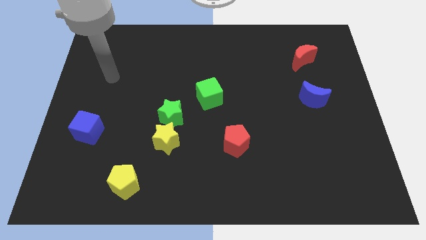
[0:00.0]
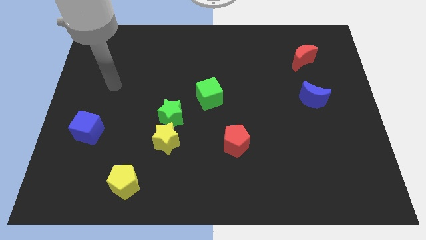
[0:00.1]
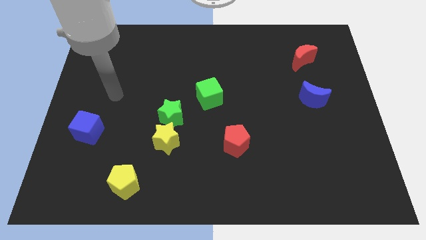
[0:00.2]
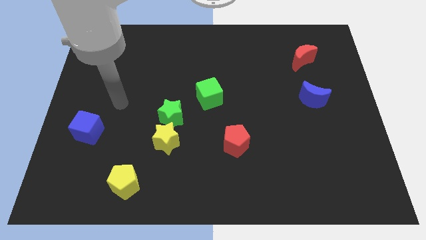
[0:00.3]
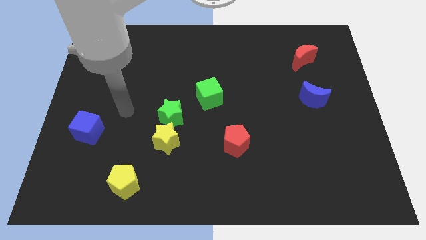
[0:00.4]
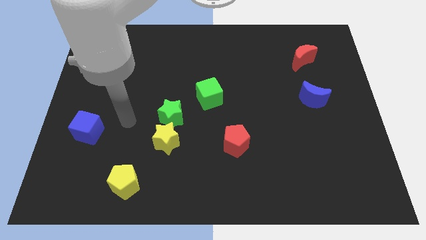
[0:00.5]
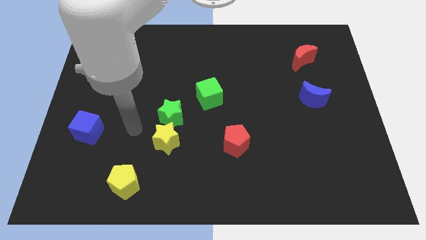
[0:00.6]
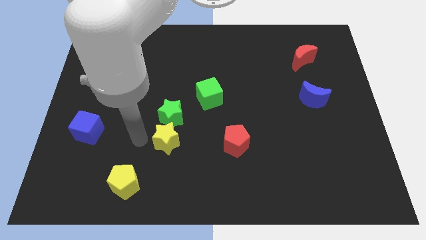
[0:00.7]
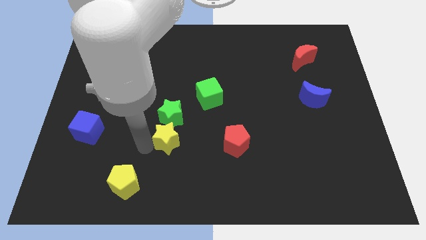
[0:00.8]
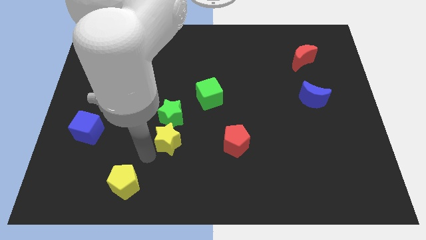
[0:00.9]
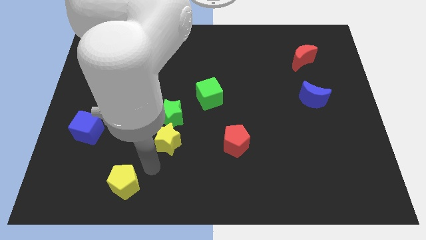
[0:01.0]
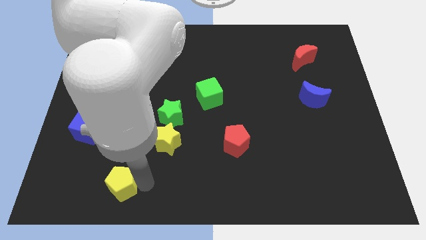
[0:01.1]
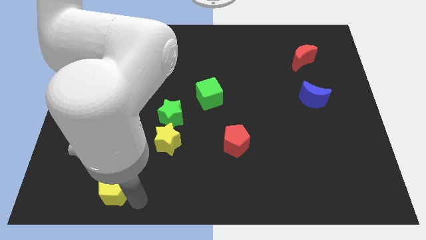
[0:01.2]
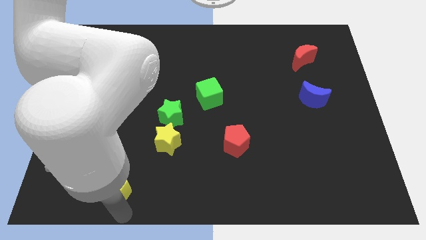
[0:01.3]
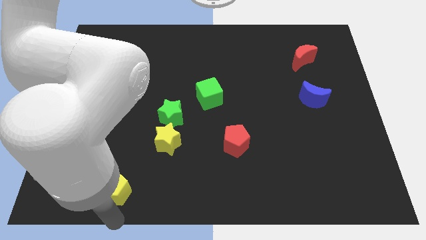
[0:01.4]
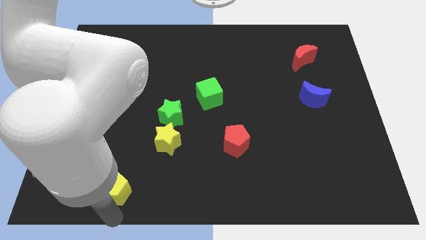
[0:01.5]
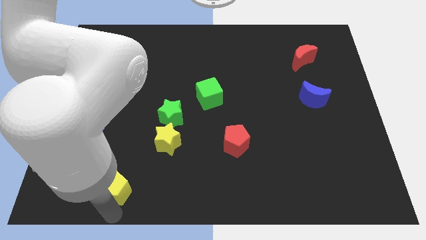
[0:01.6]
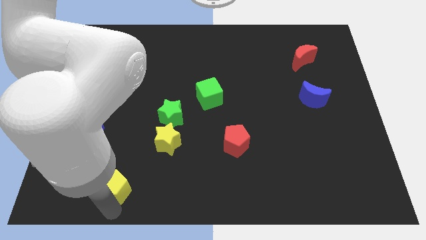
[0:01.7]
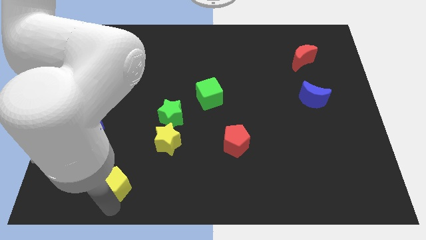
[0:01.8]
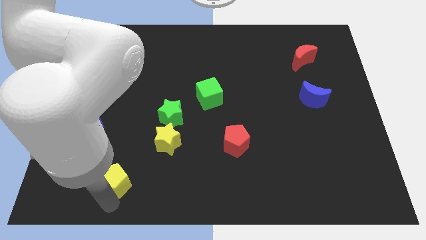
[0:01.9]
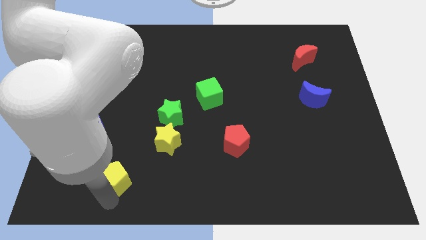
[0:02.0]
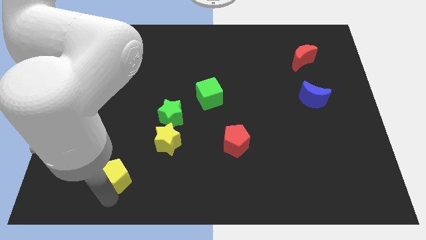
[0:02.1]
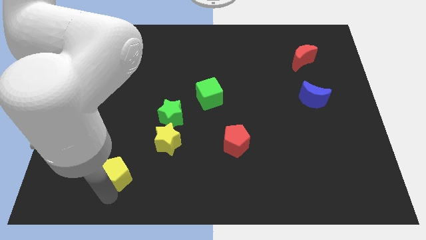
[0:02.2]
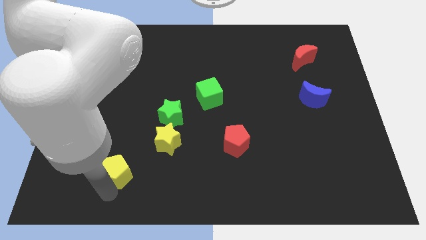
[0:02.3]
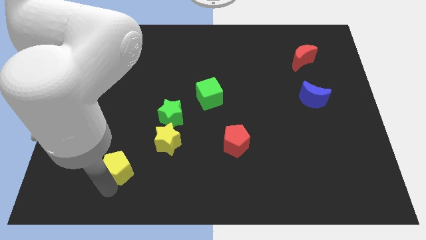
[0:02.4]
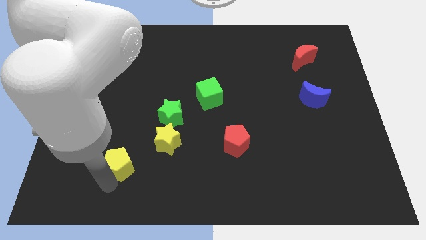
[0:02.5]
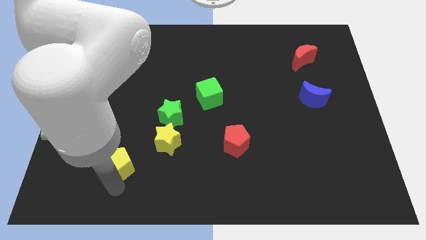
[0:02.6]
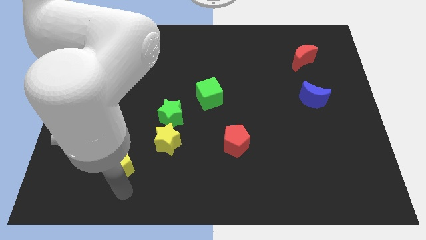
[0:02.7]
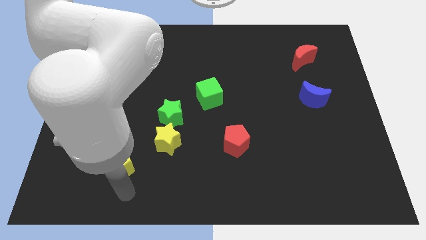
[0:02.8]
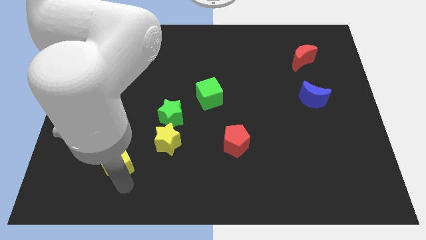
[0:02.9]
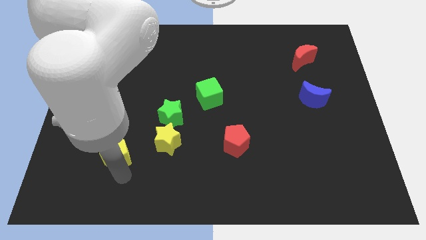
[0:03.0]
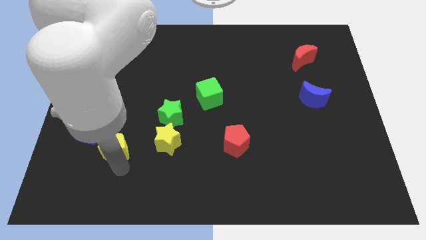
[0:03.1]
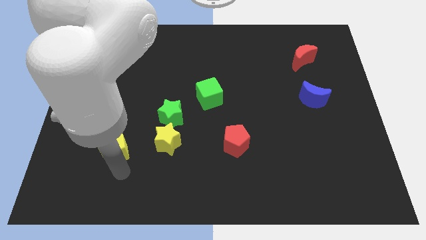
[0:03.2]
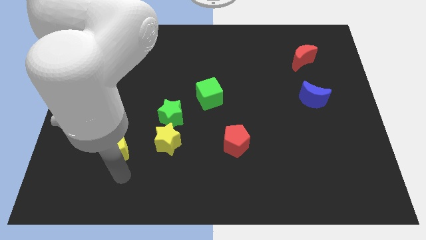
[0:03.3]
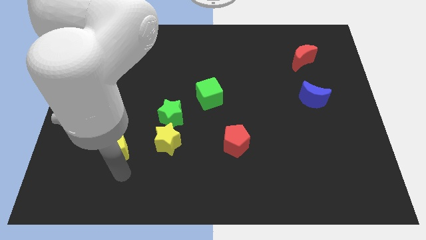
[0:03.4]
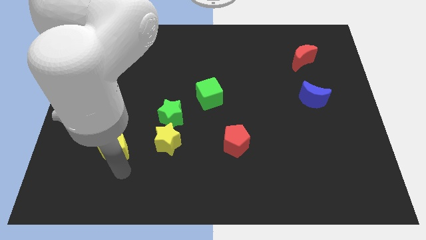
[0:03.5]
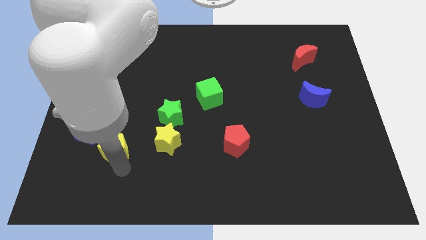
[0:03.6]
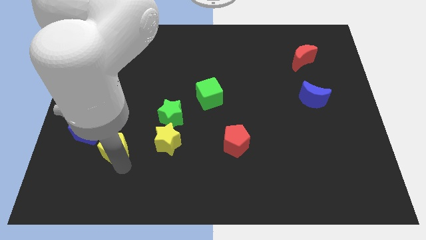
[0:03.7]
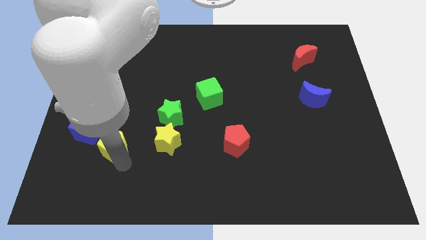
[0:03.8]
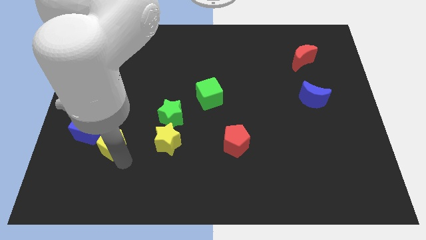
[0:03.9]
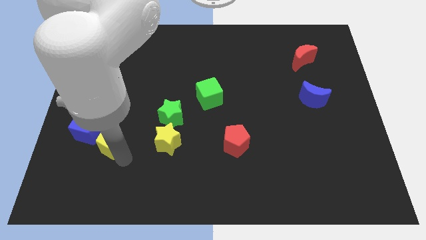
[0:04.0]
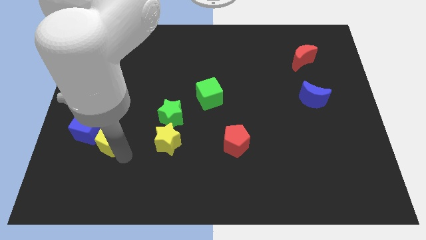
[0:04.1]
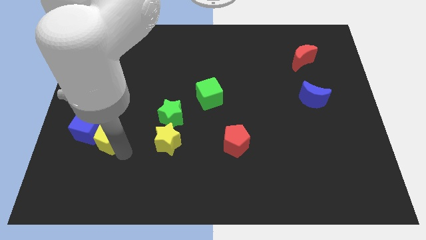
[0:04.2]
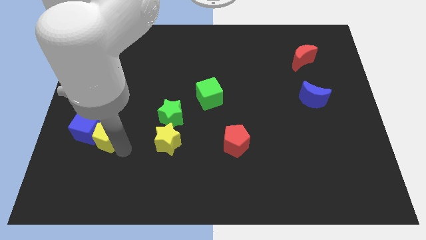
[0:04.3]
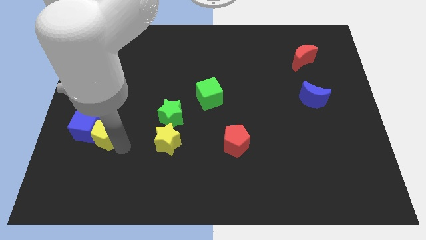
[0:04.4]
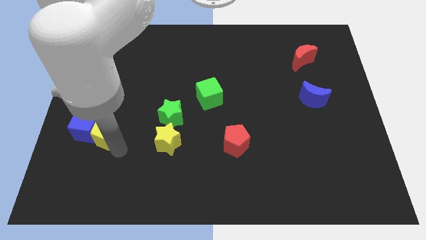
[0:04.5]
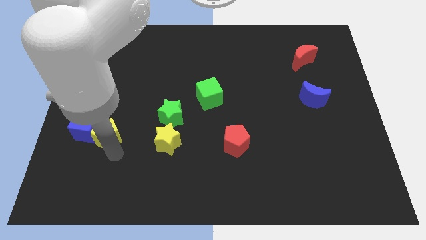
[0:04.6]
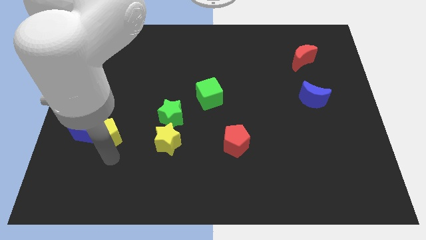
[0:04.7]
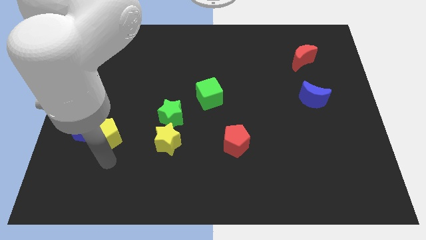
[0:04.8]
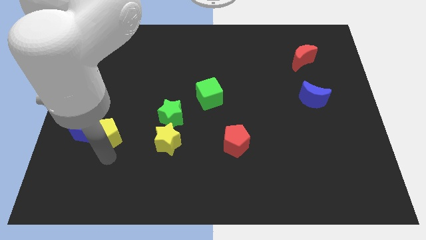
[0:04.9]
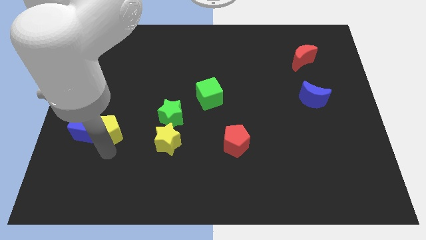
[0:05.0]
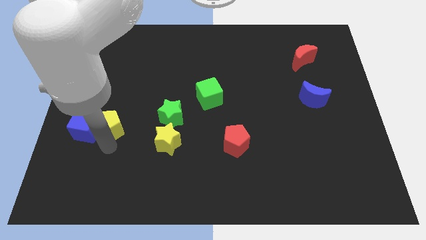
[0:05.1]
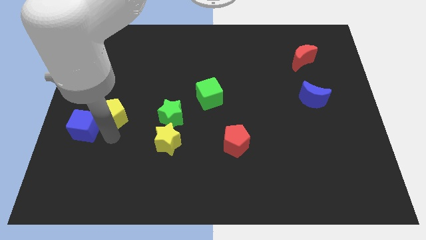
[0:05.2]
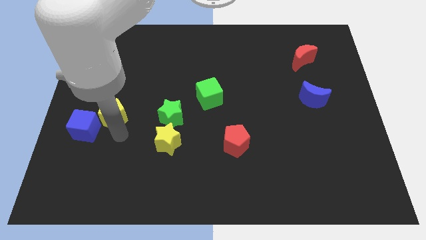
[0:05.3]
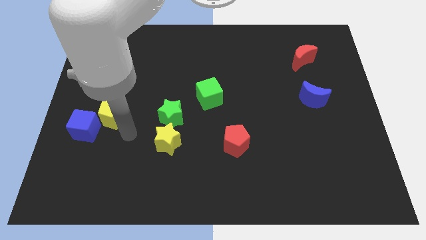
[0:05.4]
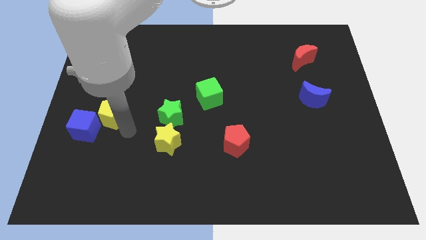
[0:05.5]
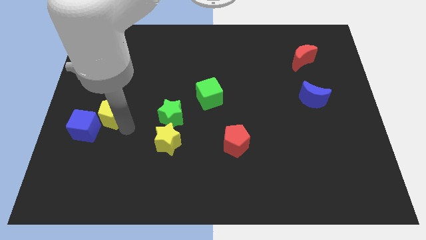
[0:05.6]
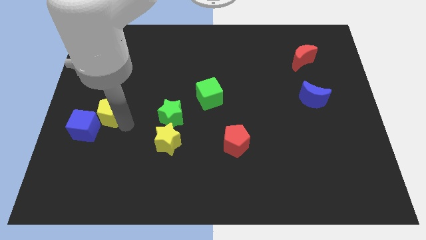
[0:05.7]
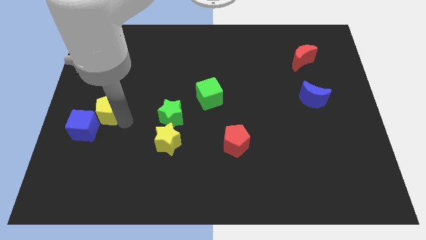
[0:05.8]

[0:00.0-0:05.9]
slide the yellow pentagon to the top of the blue cube

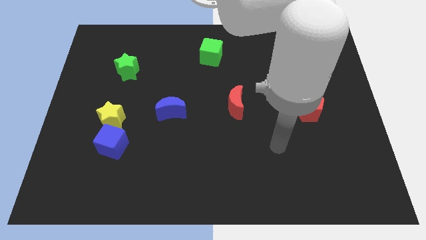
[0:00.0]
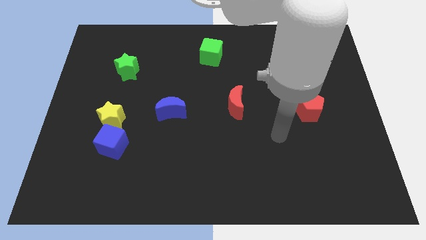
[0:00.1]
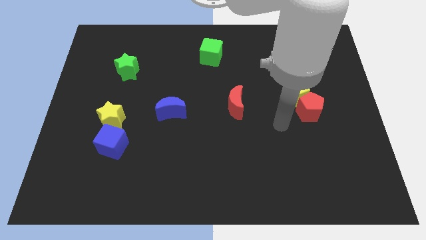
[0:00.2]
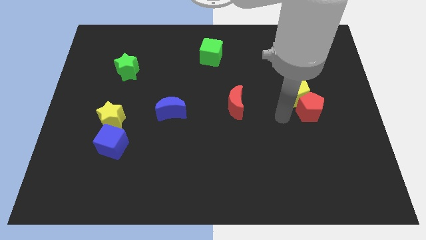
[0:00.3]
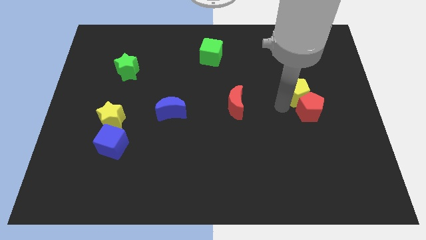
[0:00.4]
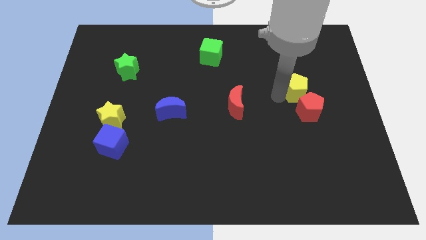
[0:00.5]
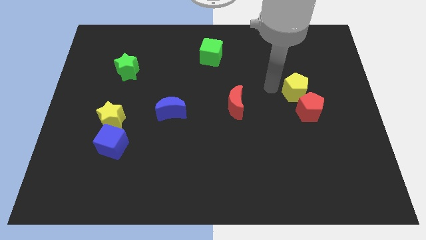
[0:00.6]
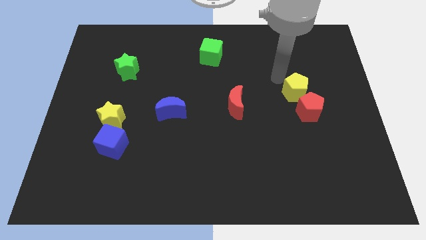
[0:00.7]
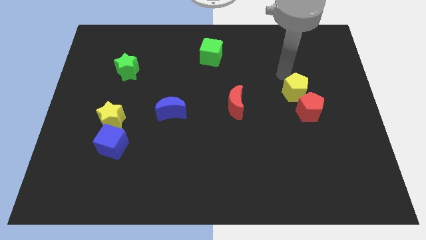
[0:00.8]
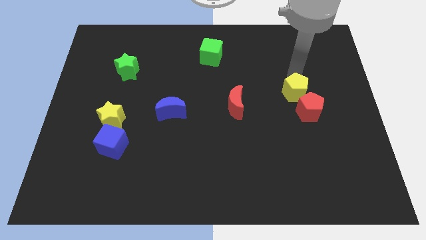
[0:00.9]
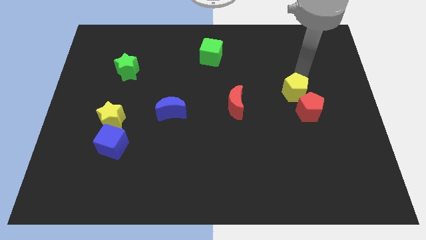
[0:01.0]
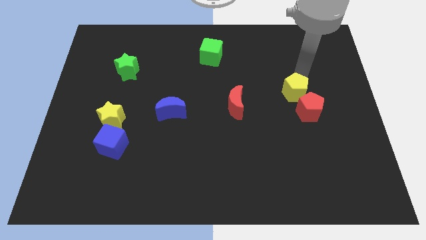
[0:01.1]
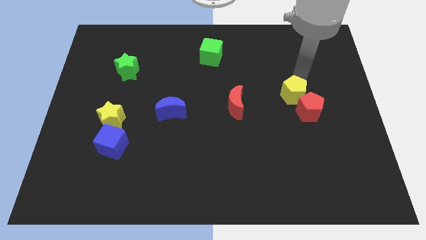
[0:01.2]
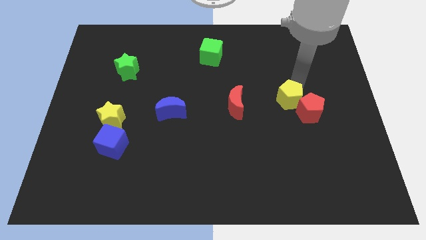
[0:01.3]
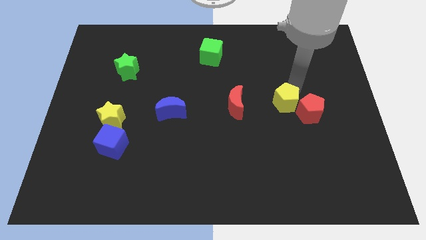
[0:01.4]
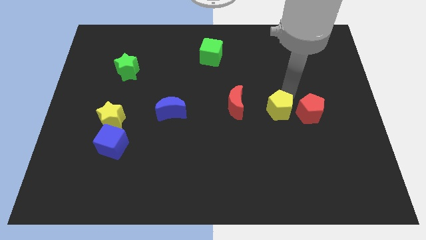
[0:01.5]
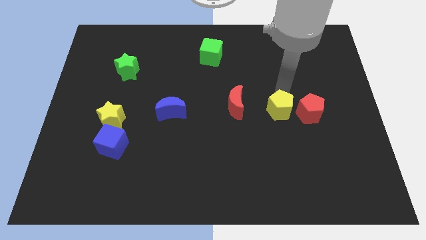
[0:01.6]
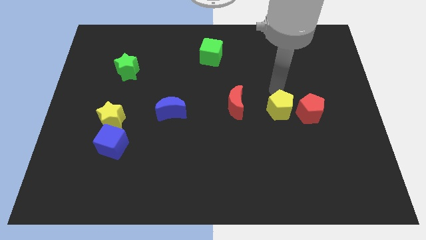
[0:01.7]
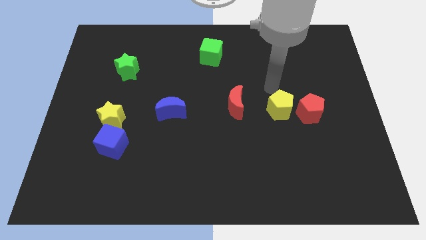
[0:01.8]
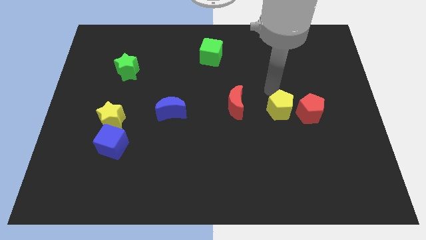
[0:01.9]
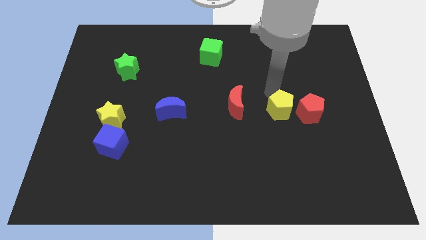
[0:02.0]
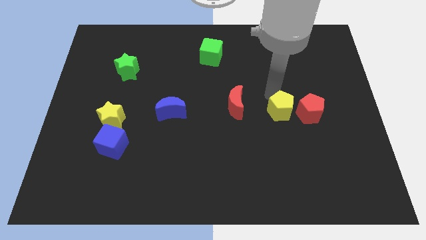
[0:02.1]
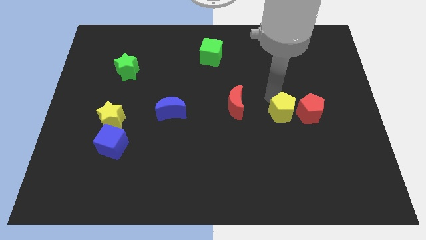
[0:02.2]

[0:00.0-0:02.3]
push the yellow pentagon to the bottom left side of the red pentagon

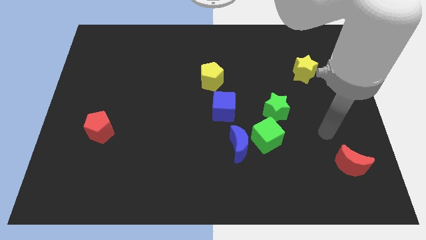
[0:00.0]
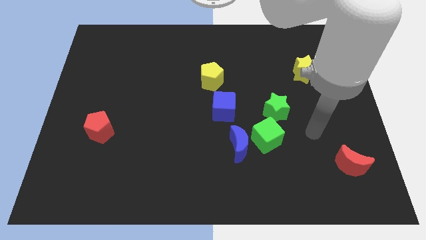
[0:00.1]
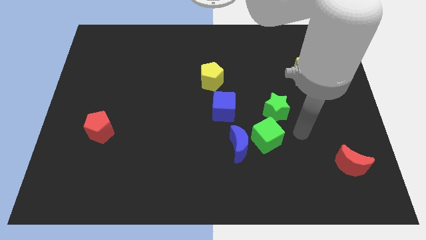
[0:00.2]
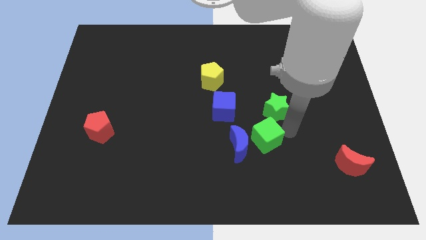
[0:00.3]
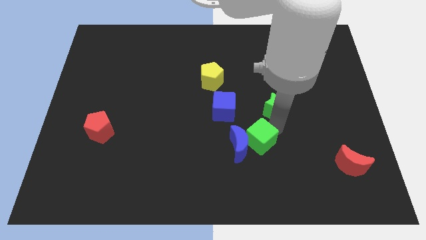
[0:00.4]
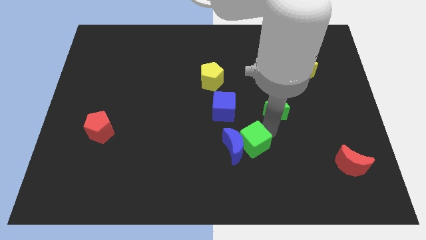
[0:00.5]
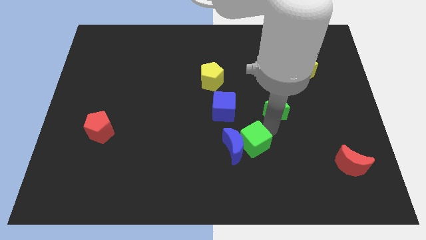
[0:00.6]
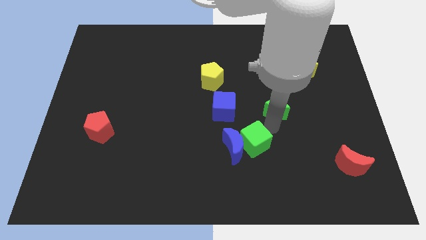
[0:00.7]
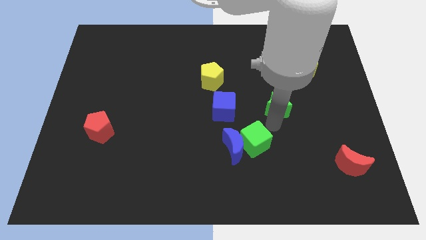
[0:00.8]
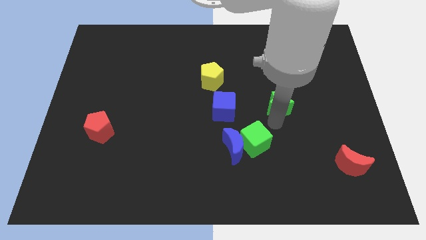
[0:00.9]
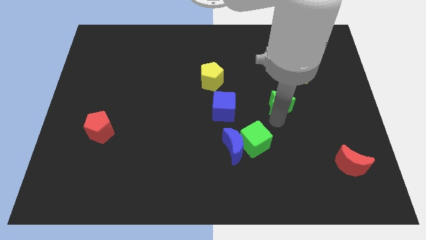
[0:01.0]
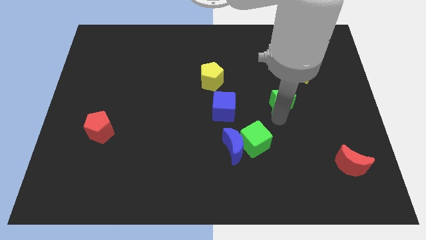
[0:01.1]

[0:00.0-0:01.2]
put the green star diagonally down and to the left of the yellow star
